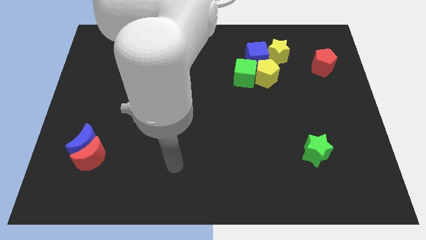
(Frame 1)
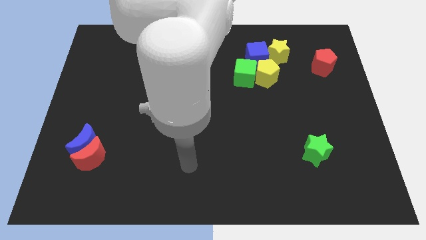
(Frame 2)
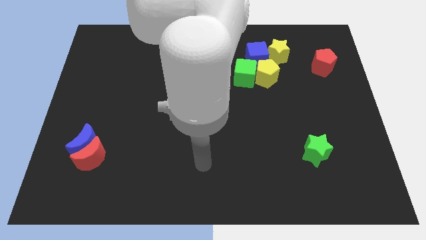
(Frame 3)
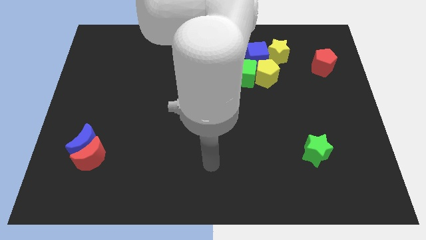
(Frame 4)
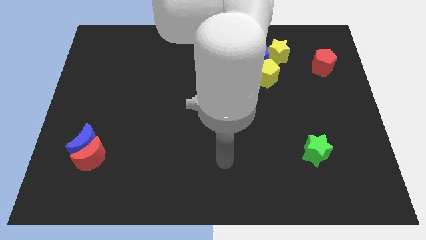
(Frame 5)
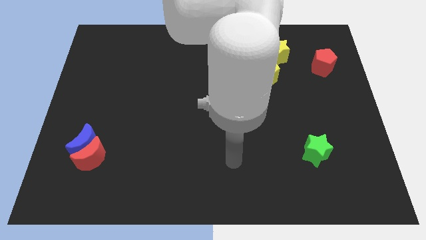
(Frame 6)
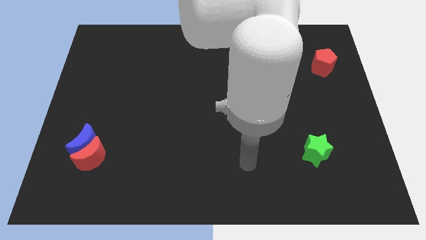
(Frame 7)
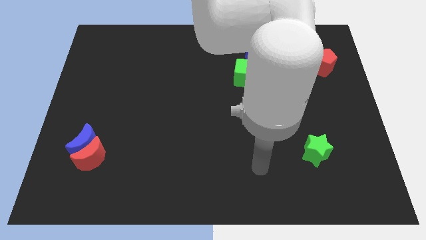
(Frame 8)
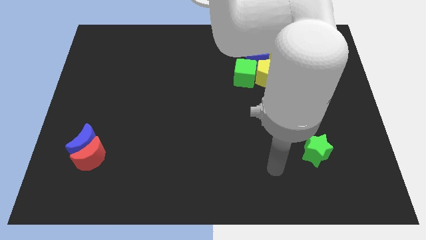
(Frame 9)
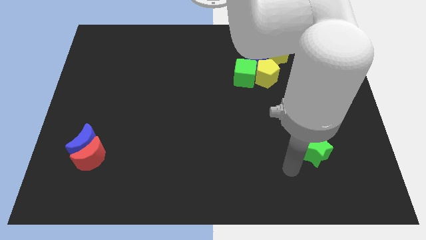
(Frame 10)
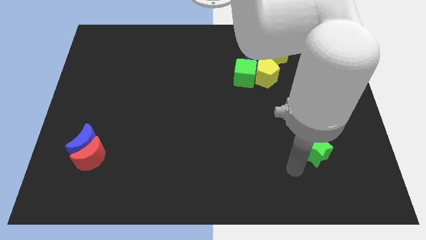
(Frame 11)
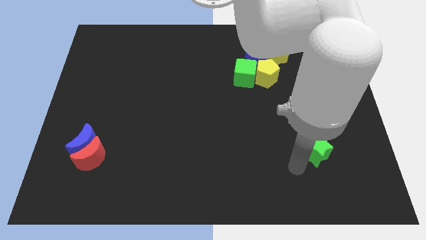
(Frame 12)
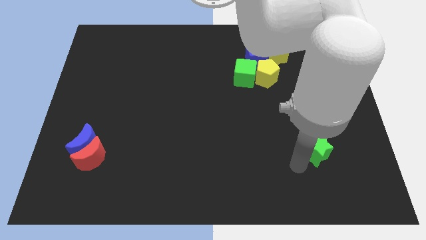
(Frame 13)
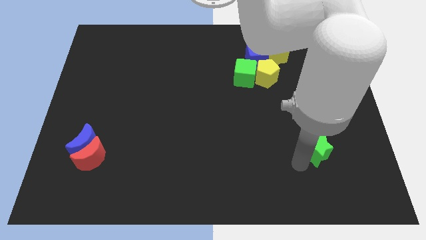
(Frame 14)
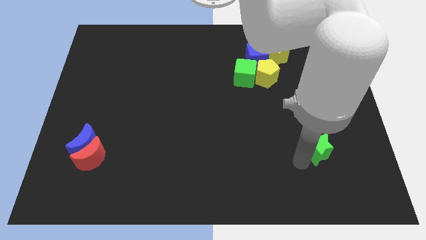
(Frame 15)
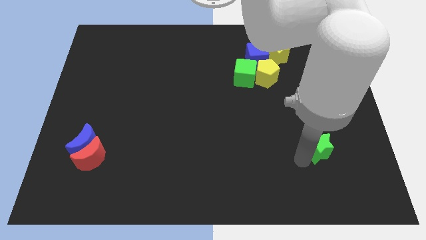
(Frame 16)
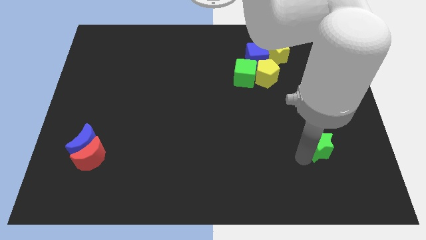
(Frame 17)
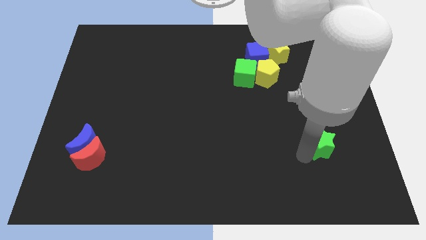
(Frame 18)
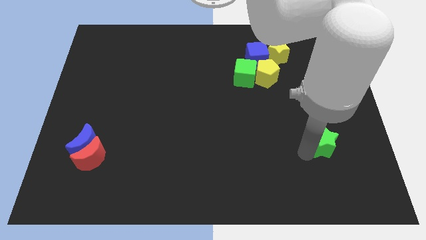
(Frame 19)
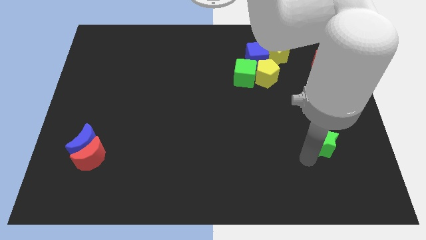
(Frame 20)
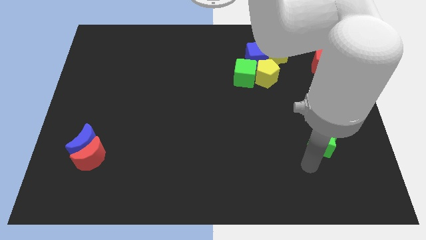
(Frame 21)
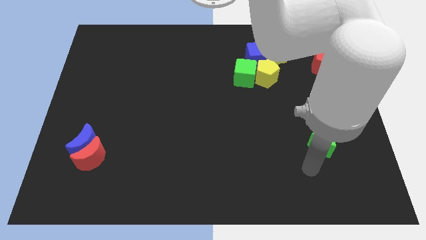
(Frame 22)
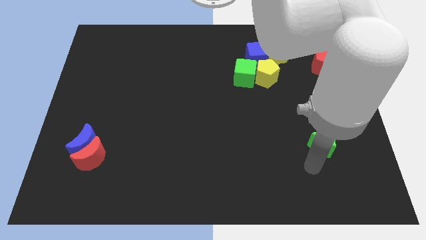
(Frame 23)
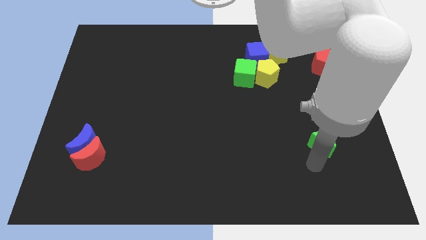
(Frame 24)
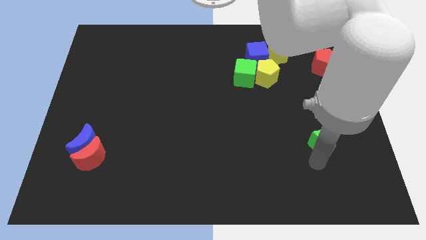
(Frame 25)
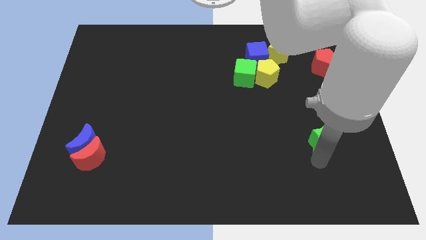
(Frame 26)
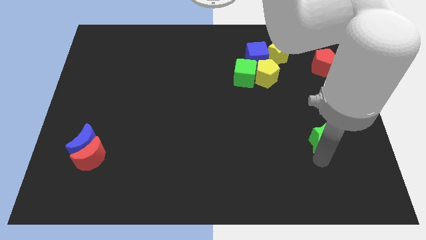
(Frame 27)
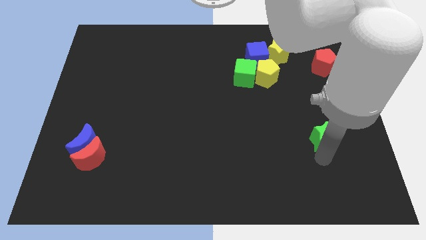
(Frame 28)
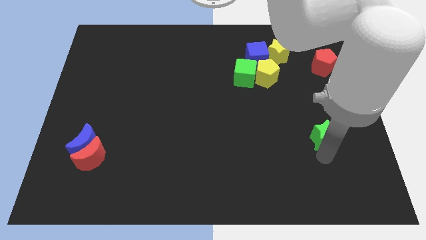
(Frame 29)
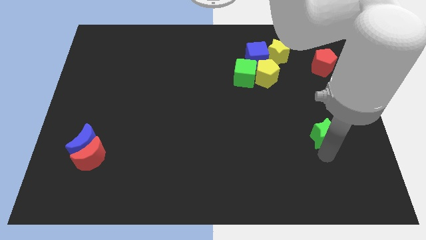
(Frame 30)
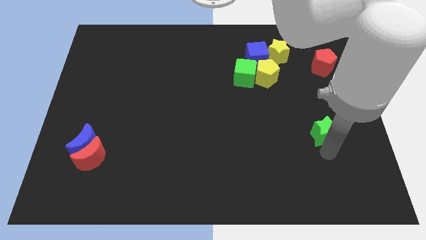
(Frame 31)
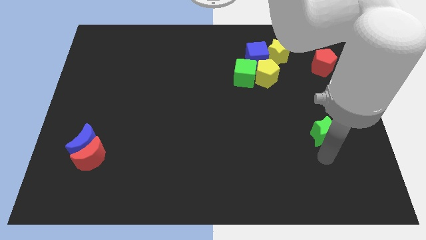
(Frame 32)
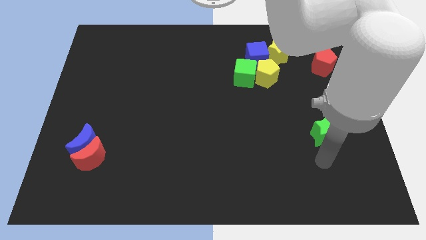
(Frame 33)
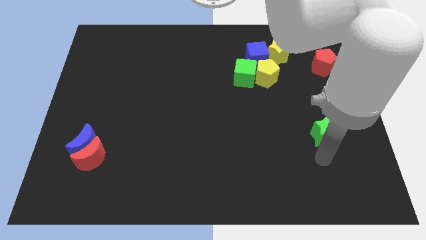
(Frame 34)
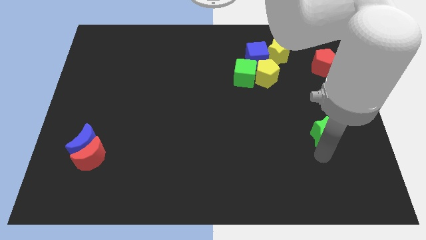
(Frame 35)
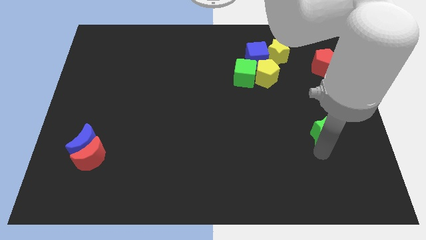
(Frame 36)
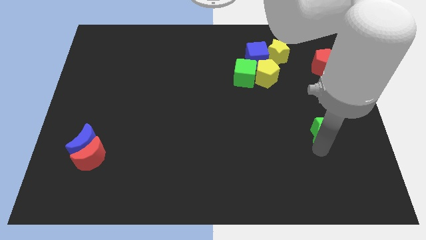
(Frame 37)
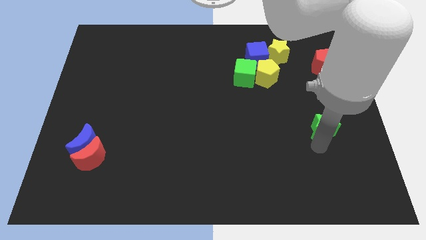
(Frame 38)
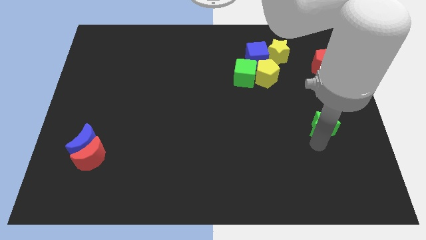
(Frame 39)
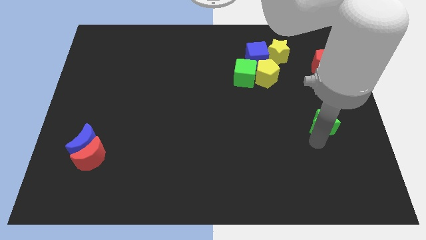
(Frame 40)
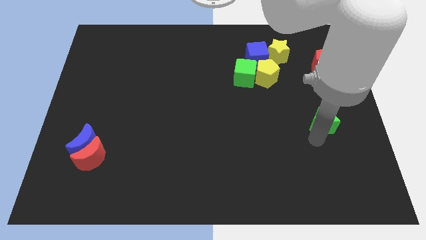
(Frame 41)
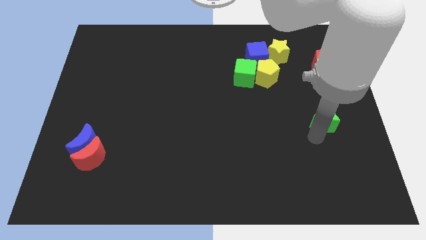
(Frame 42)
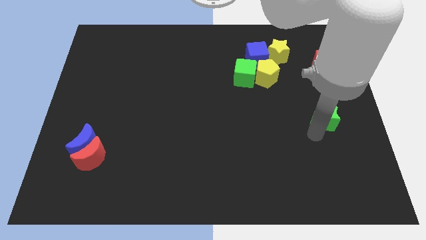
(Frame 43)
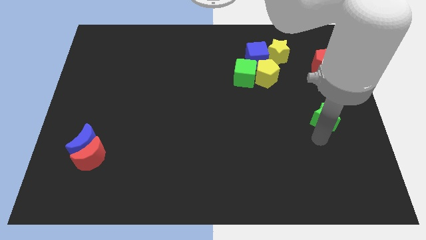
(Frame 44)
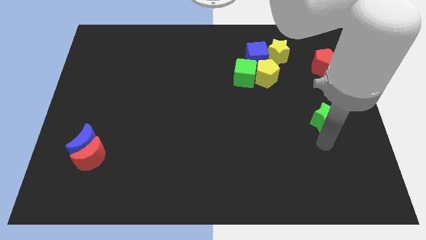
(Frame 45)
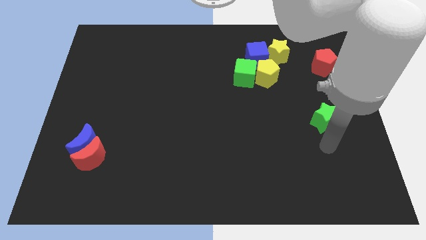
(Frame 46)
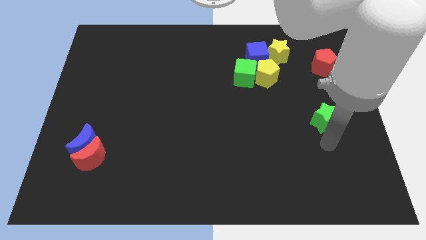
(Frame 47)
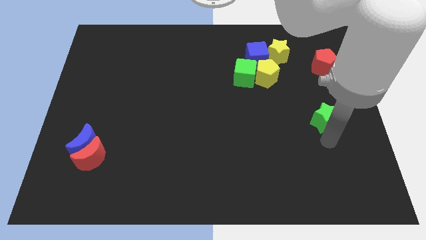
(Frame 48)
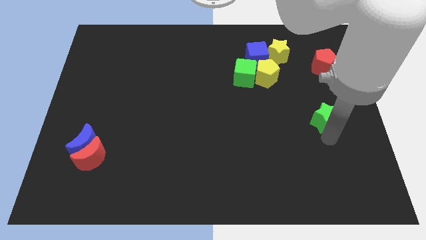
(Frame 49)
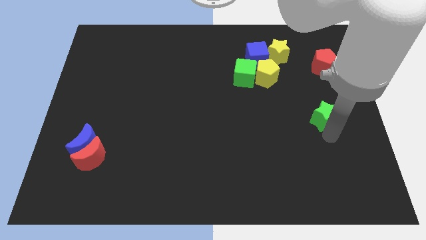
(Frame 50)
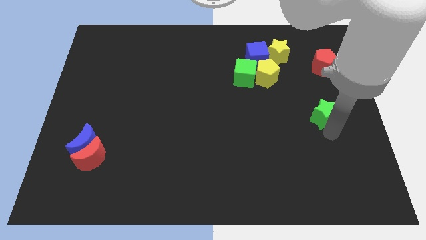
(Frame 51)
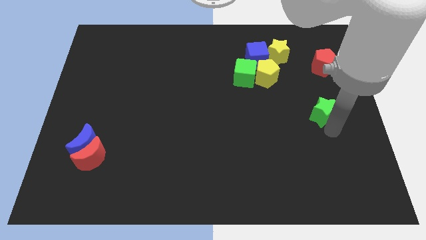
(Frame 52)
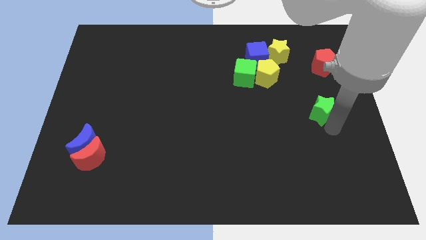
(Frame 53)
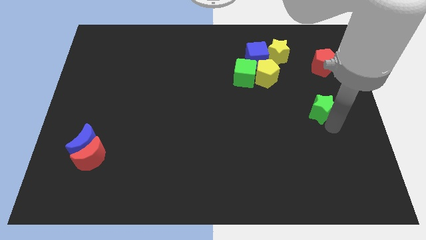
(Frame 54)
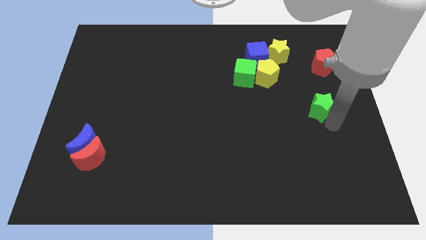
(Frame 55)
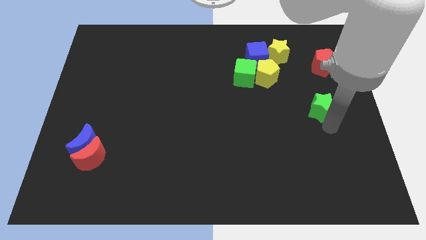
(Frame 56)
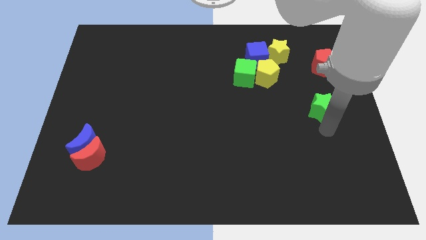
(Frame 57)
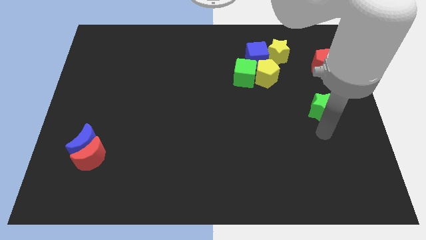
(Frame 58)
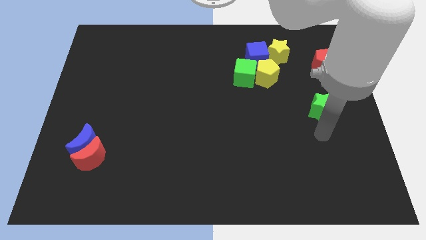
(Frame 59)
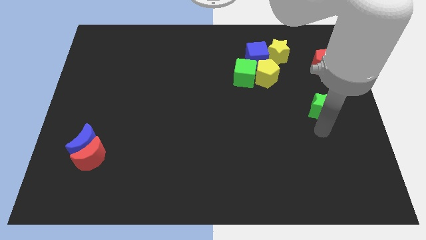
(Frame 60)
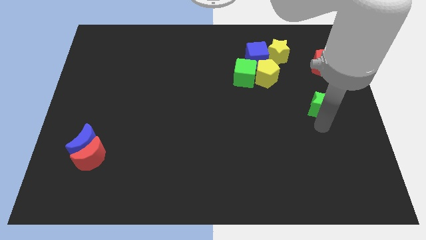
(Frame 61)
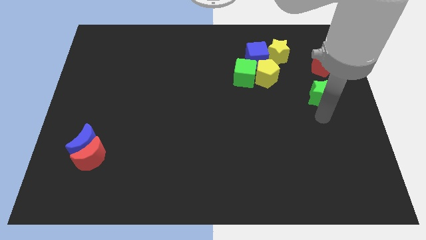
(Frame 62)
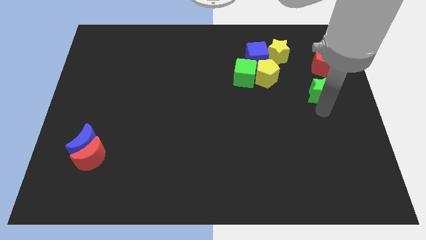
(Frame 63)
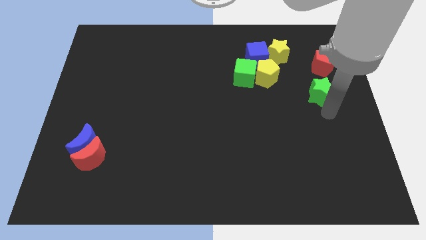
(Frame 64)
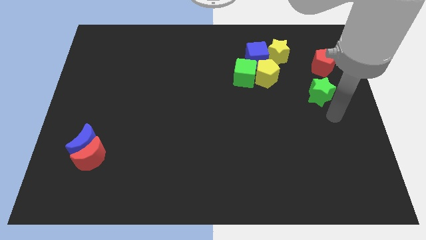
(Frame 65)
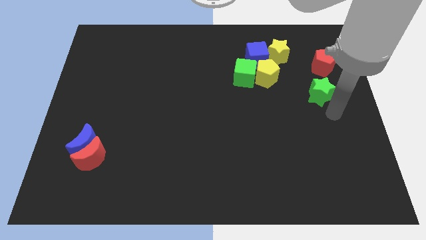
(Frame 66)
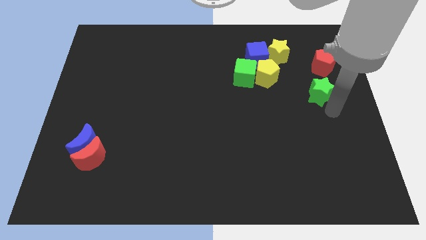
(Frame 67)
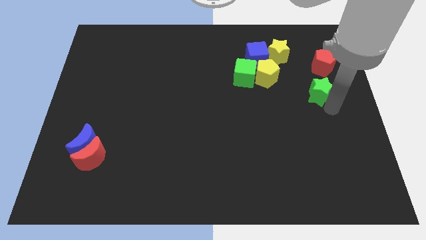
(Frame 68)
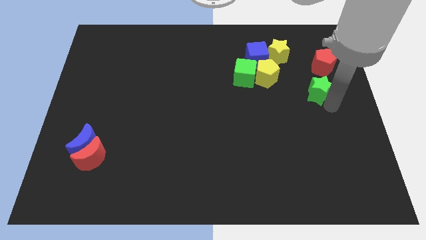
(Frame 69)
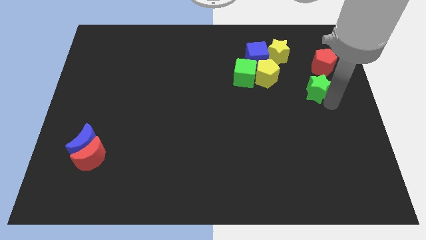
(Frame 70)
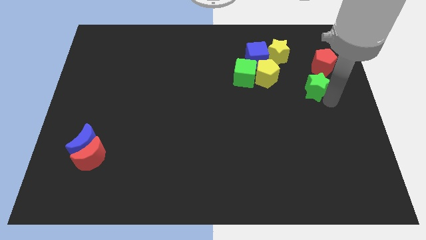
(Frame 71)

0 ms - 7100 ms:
push the green star just right of the yellow pentagon
